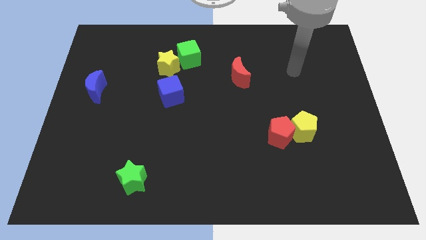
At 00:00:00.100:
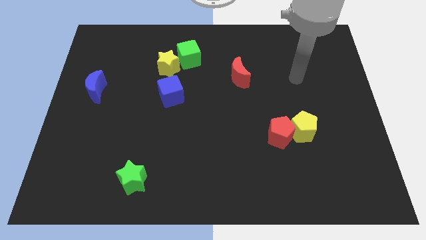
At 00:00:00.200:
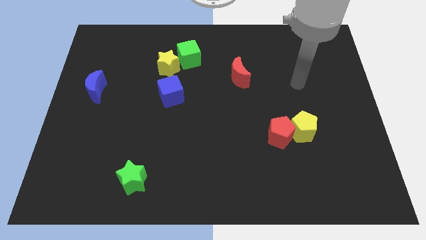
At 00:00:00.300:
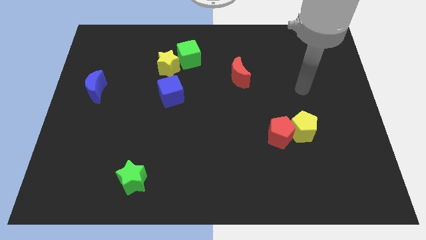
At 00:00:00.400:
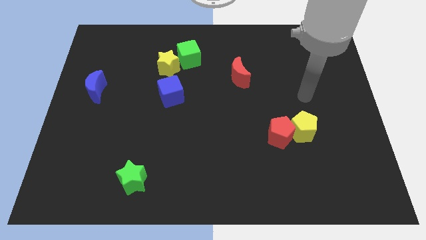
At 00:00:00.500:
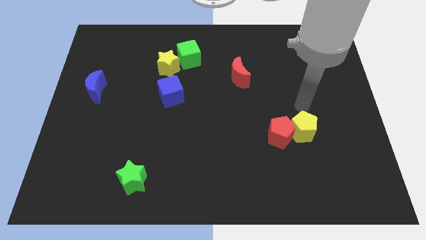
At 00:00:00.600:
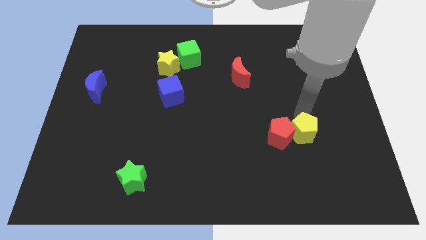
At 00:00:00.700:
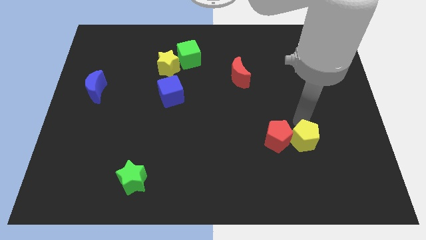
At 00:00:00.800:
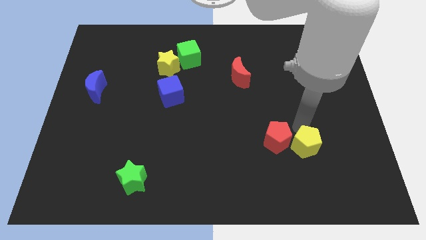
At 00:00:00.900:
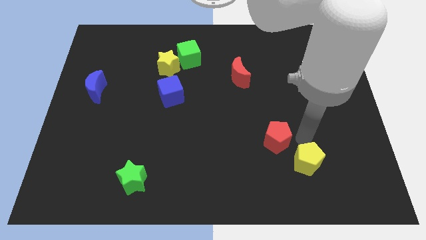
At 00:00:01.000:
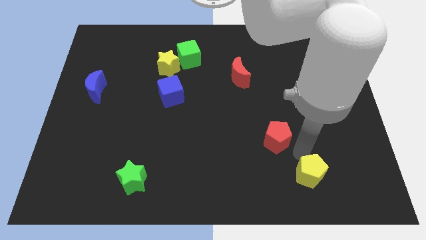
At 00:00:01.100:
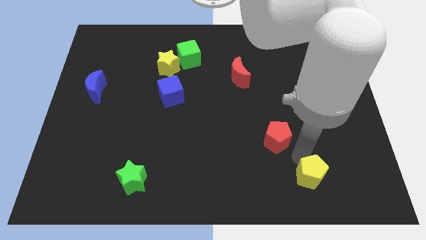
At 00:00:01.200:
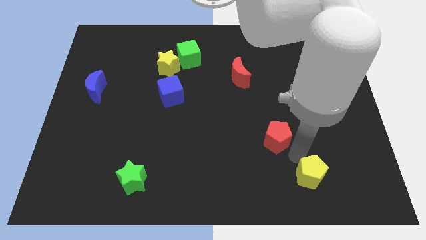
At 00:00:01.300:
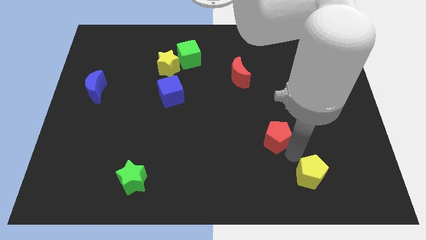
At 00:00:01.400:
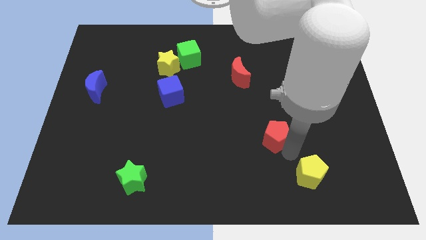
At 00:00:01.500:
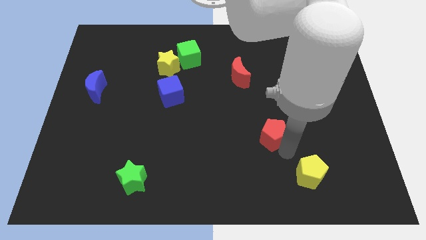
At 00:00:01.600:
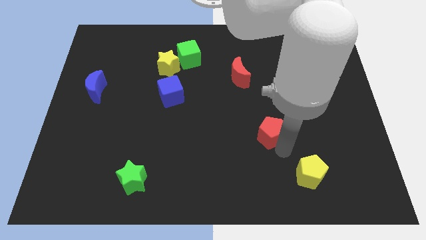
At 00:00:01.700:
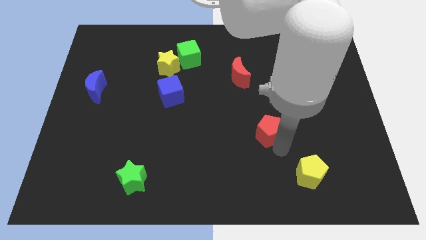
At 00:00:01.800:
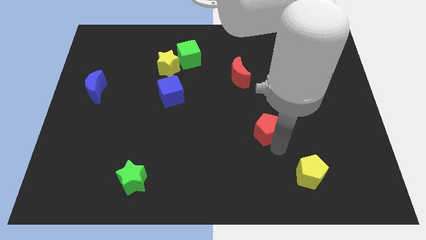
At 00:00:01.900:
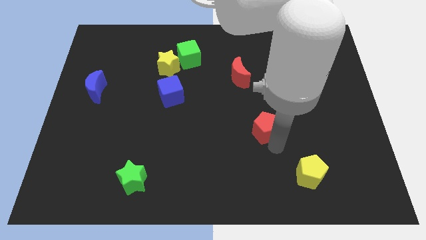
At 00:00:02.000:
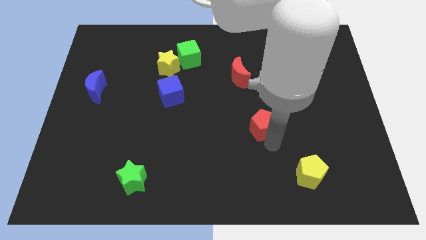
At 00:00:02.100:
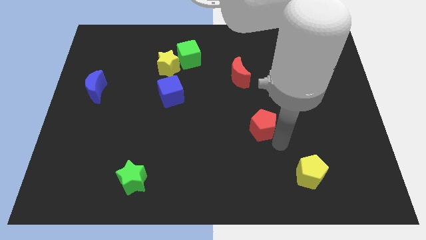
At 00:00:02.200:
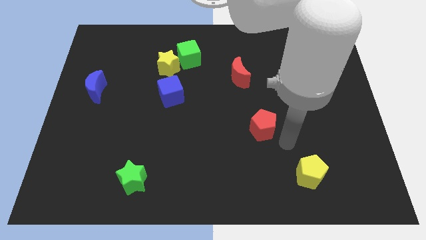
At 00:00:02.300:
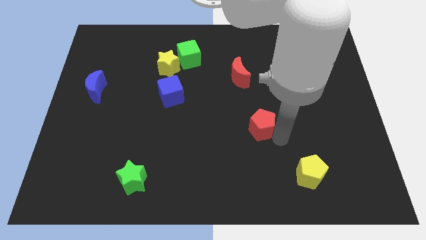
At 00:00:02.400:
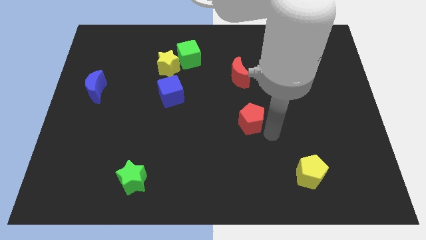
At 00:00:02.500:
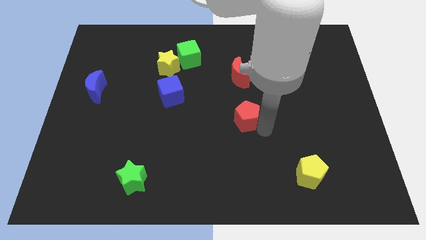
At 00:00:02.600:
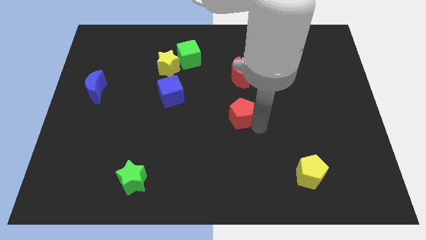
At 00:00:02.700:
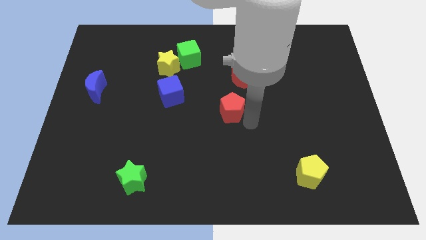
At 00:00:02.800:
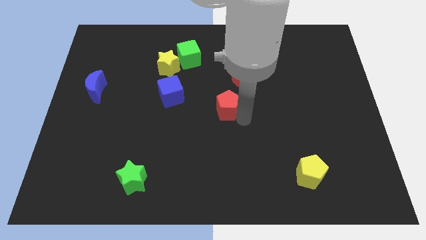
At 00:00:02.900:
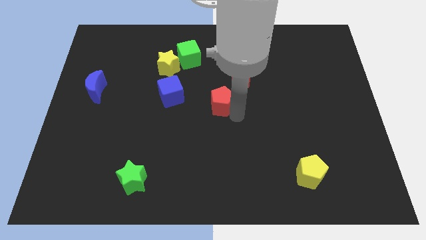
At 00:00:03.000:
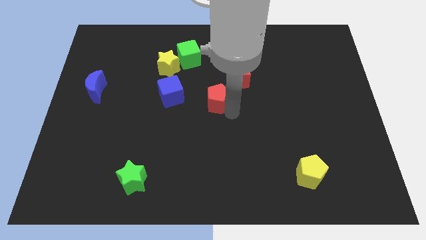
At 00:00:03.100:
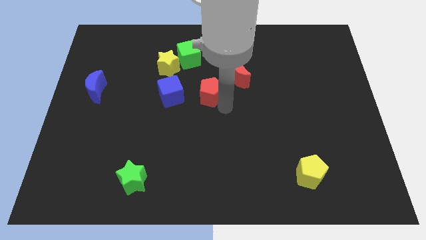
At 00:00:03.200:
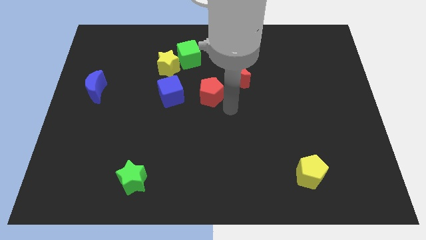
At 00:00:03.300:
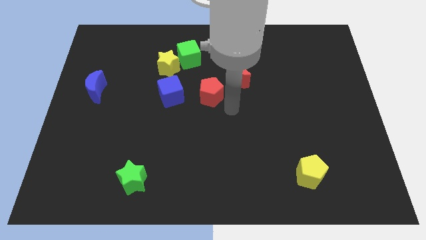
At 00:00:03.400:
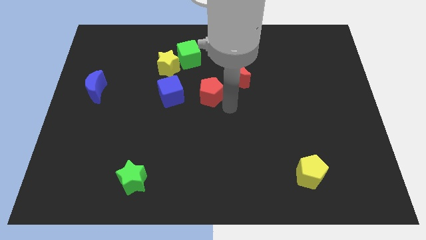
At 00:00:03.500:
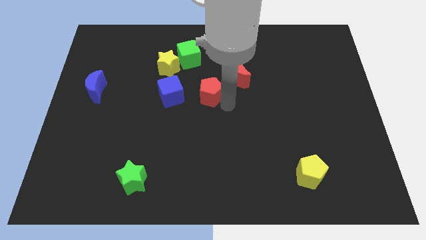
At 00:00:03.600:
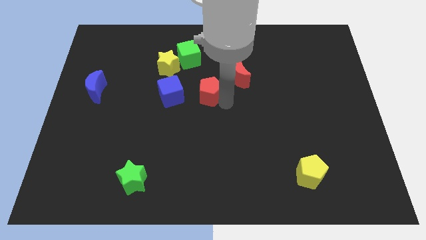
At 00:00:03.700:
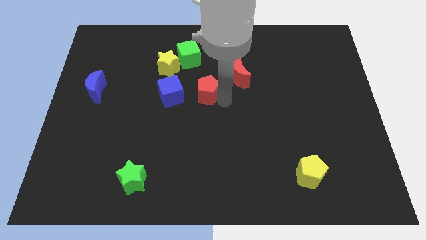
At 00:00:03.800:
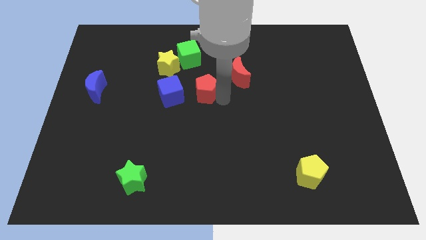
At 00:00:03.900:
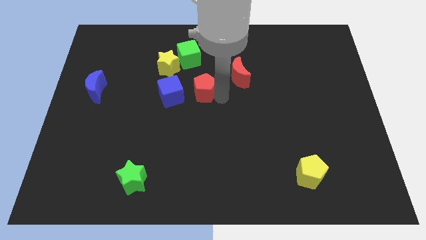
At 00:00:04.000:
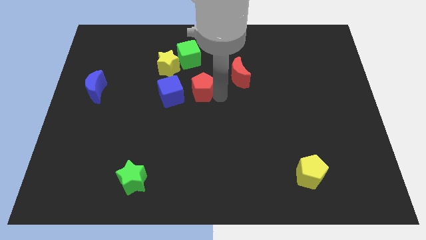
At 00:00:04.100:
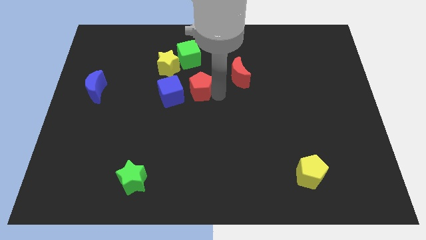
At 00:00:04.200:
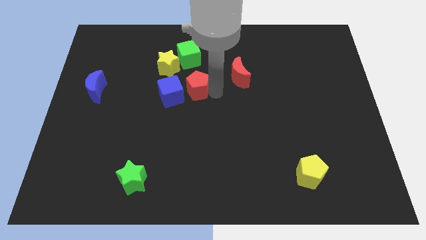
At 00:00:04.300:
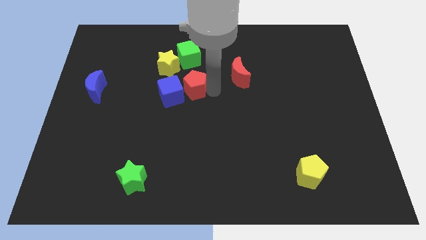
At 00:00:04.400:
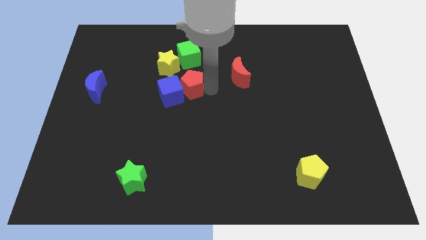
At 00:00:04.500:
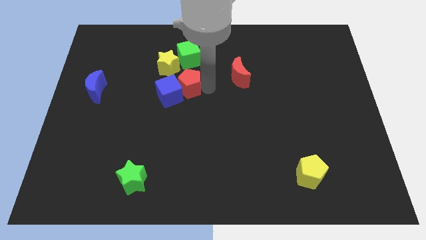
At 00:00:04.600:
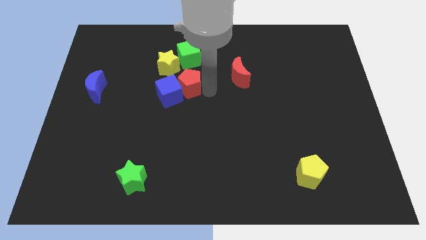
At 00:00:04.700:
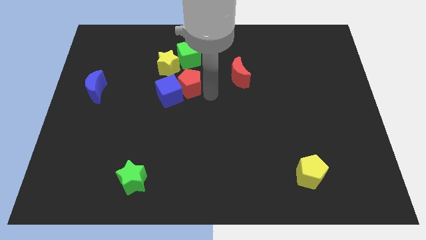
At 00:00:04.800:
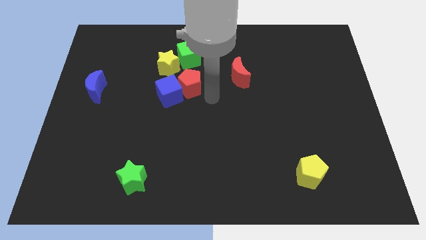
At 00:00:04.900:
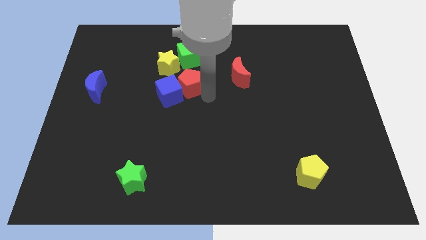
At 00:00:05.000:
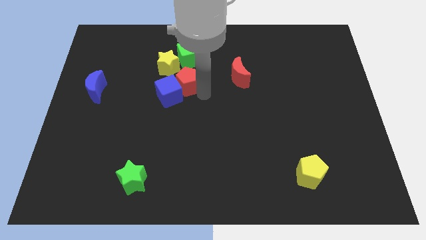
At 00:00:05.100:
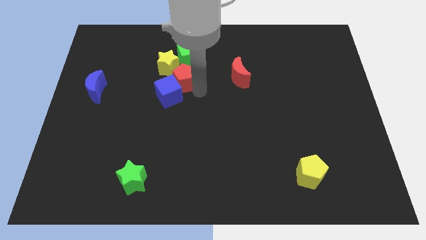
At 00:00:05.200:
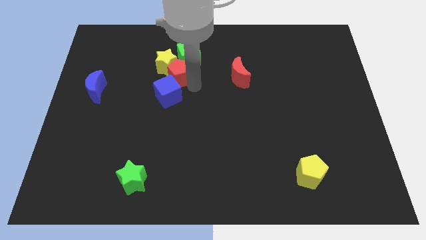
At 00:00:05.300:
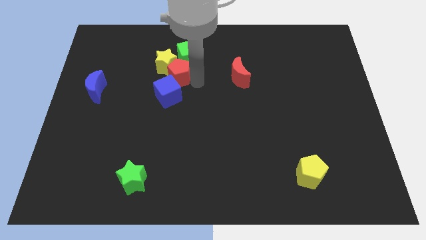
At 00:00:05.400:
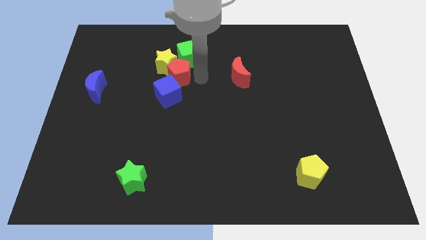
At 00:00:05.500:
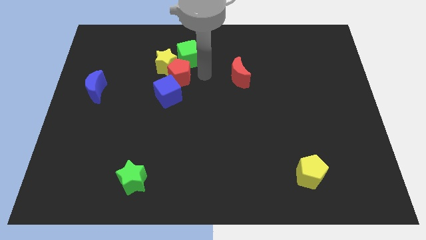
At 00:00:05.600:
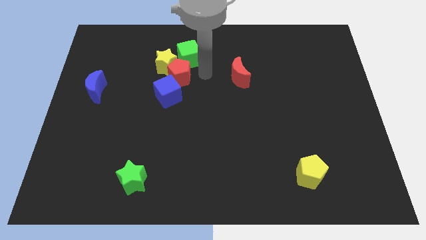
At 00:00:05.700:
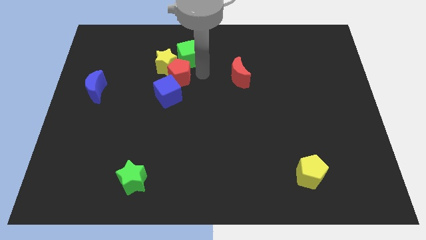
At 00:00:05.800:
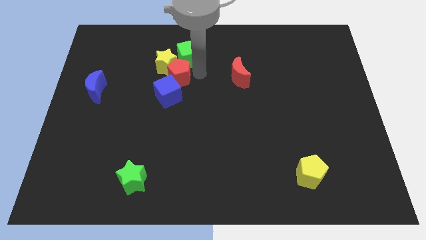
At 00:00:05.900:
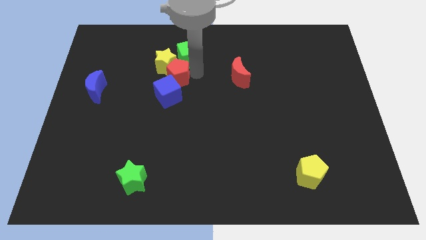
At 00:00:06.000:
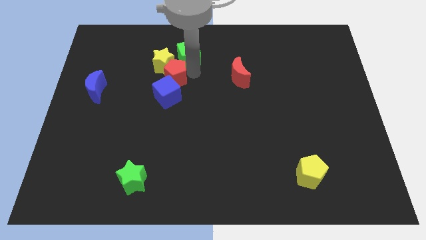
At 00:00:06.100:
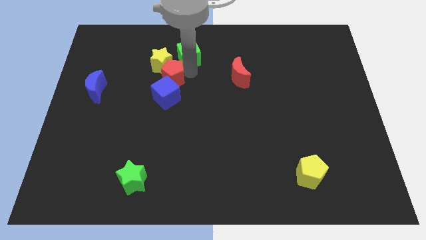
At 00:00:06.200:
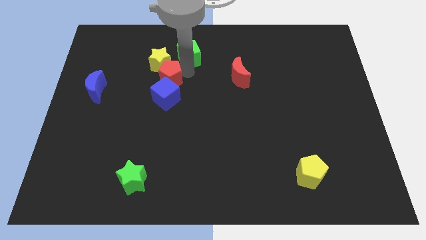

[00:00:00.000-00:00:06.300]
push the red pentagon to the top left side of the blue cube

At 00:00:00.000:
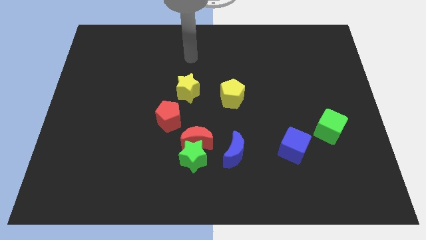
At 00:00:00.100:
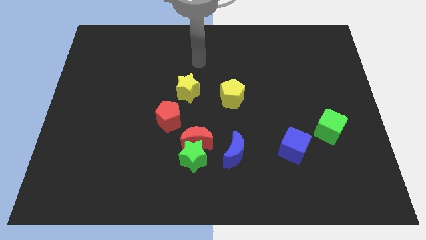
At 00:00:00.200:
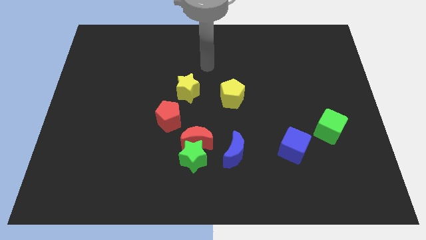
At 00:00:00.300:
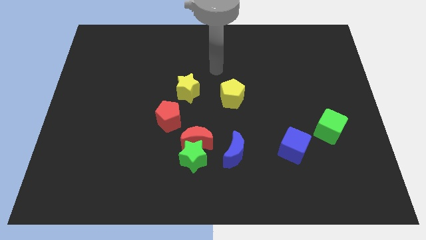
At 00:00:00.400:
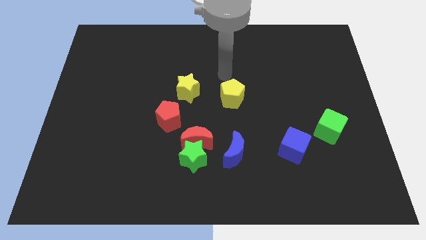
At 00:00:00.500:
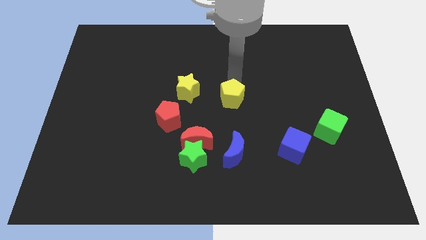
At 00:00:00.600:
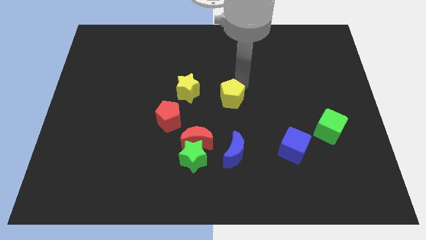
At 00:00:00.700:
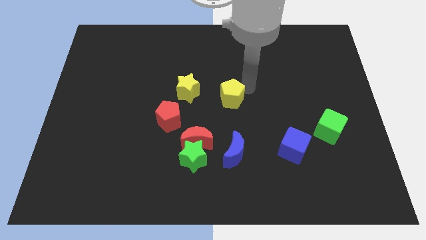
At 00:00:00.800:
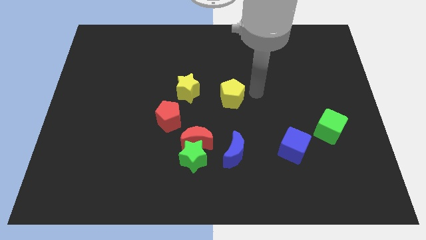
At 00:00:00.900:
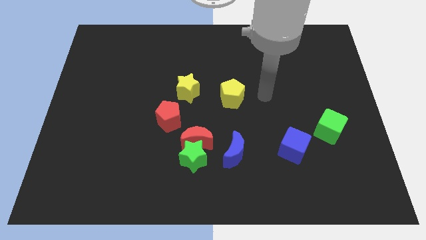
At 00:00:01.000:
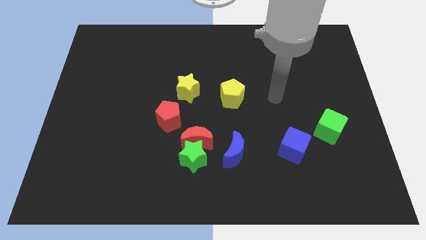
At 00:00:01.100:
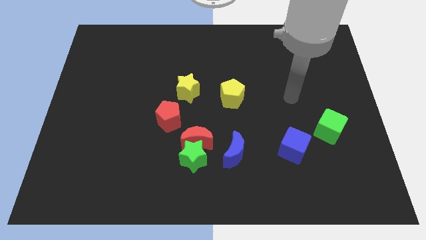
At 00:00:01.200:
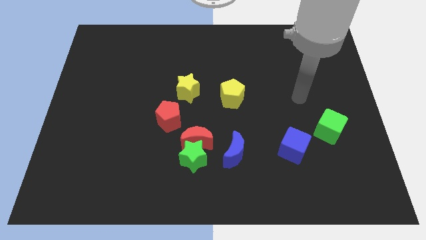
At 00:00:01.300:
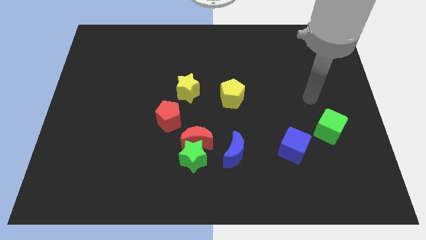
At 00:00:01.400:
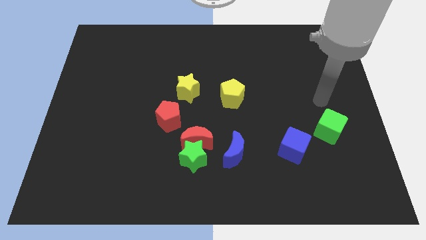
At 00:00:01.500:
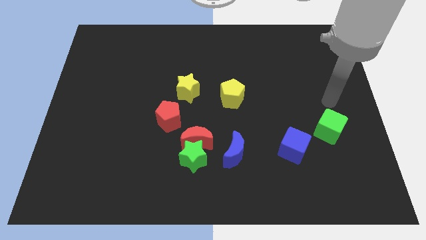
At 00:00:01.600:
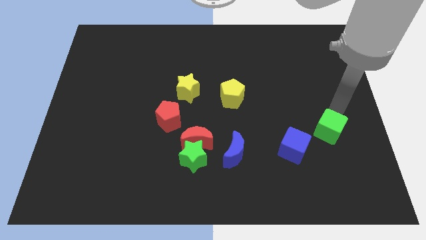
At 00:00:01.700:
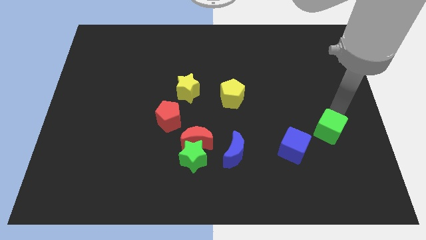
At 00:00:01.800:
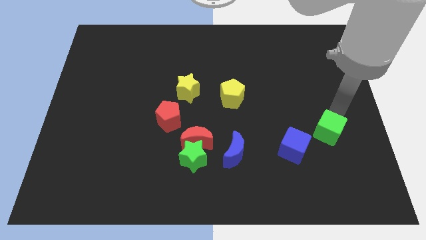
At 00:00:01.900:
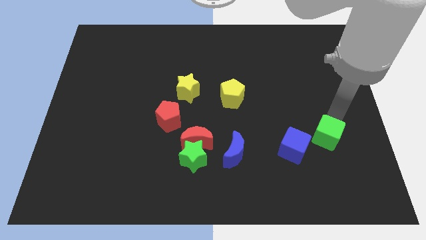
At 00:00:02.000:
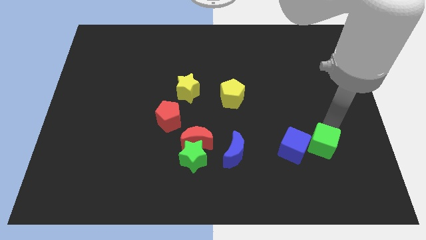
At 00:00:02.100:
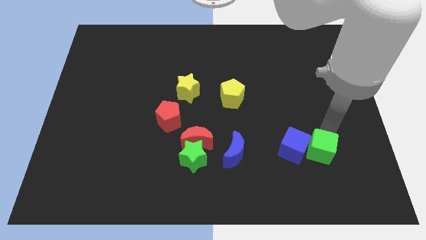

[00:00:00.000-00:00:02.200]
put the green cube to the bottom right of the blue cube
